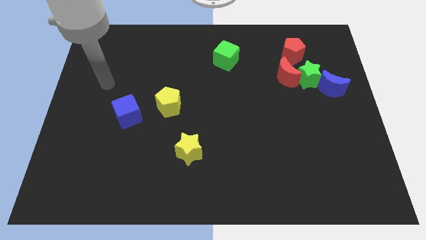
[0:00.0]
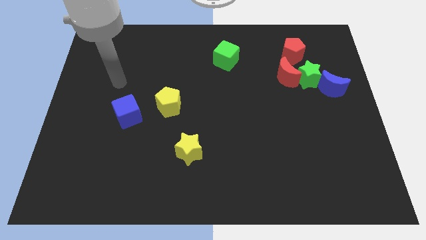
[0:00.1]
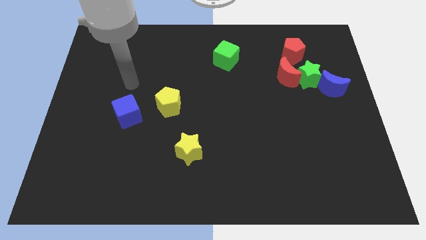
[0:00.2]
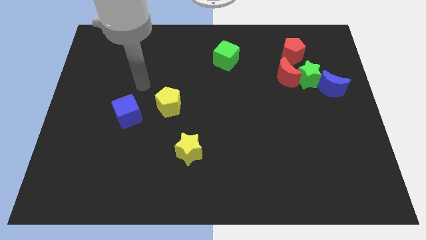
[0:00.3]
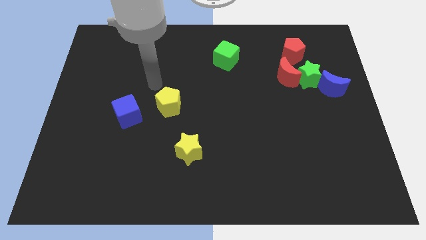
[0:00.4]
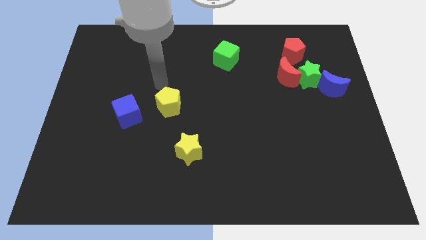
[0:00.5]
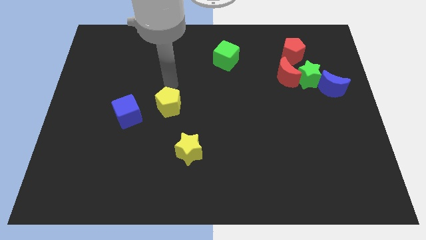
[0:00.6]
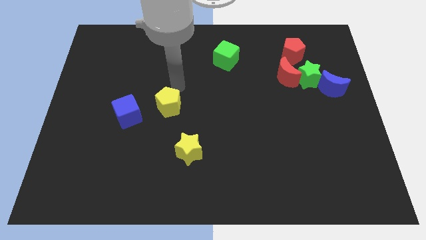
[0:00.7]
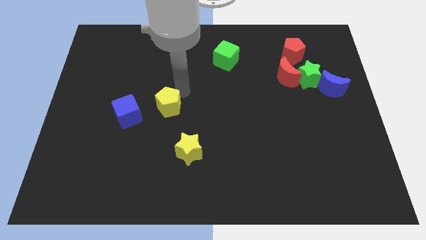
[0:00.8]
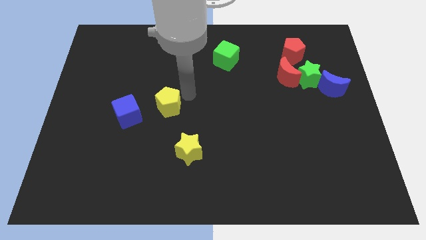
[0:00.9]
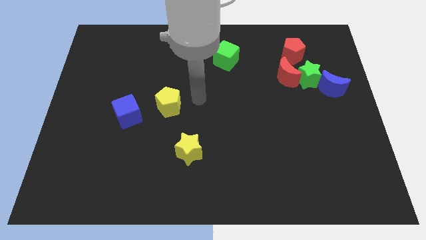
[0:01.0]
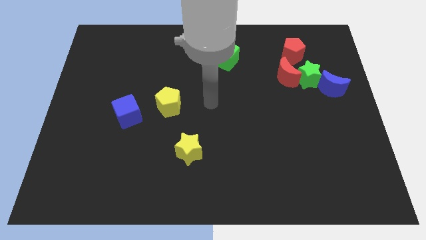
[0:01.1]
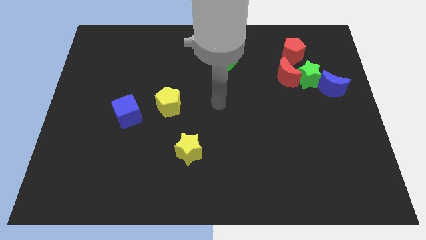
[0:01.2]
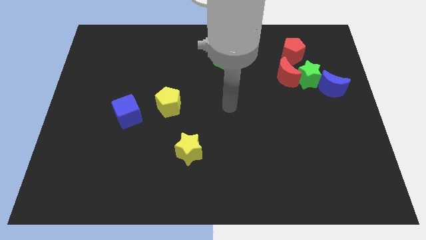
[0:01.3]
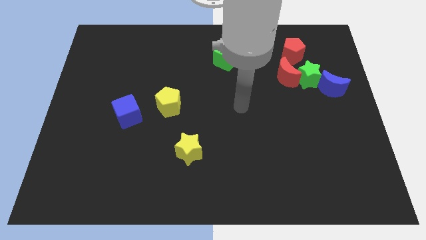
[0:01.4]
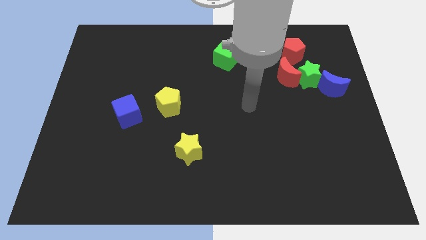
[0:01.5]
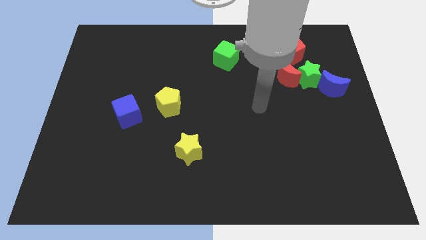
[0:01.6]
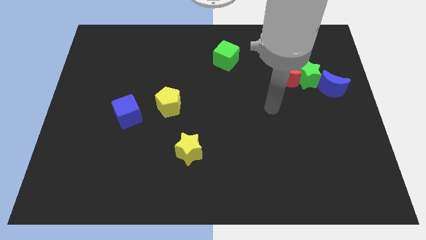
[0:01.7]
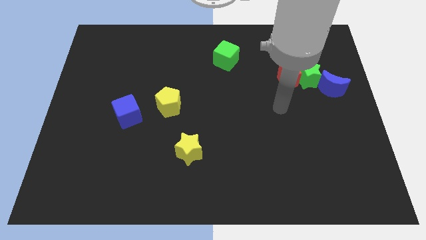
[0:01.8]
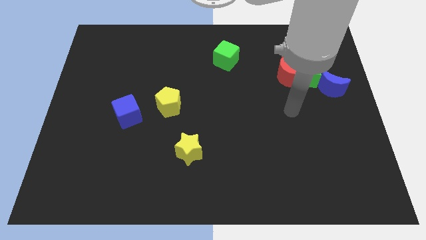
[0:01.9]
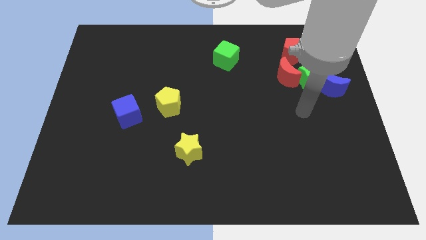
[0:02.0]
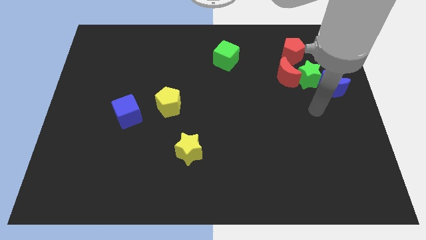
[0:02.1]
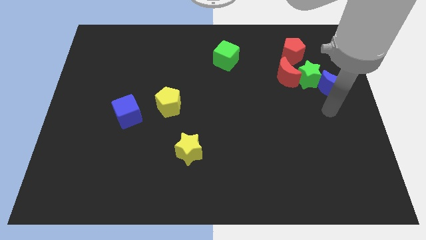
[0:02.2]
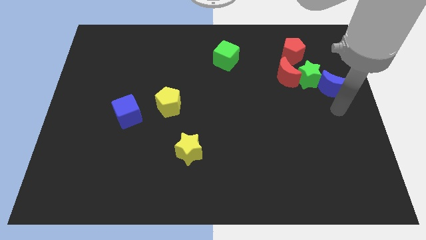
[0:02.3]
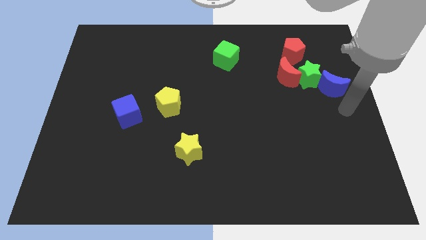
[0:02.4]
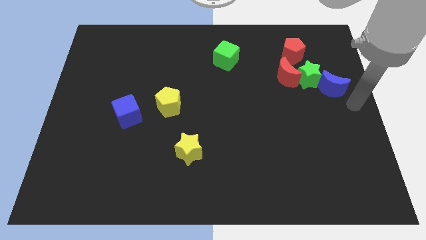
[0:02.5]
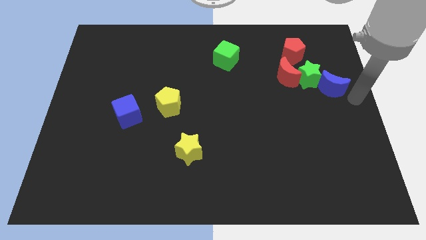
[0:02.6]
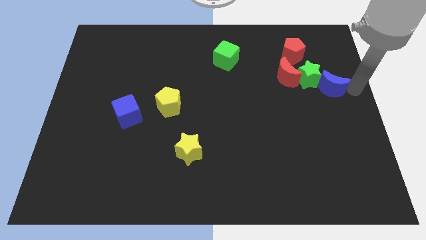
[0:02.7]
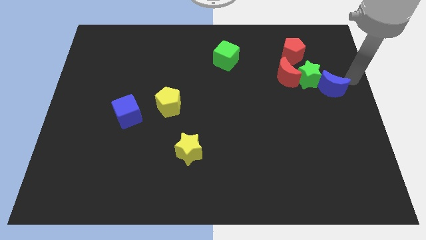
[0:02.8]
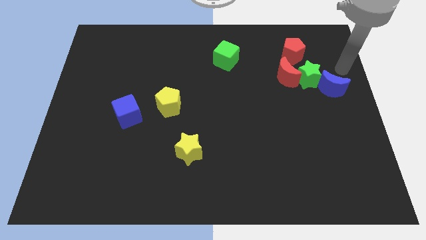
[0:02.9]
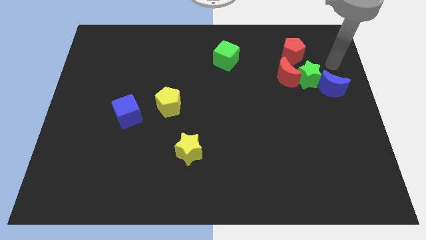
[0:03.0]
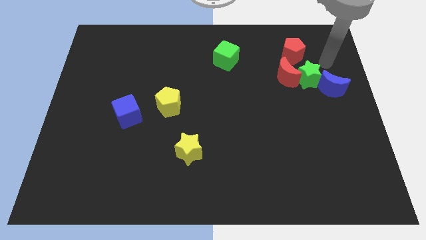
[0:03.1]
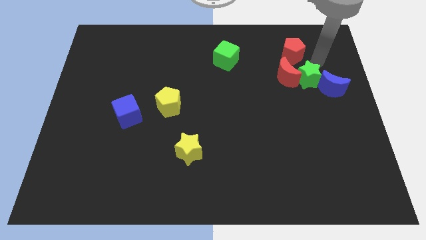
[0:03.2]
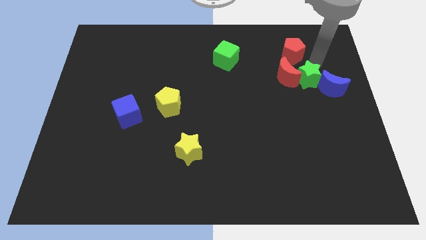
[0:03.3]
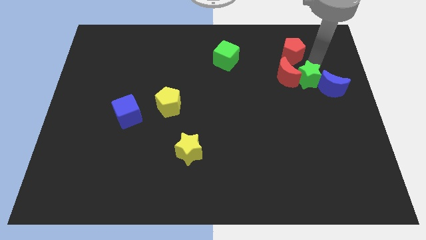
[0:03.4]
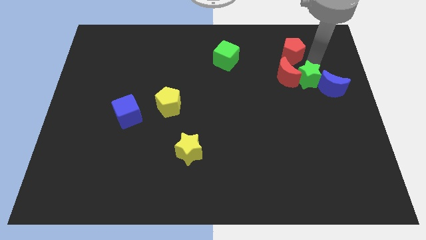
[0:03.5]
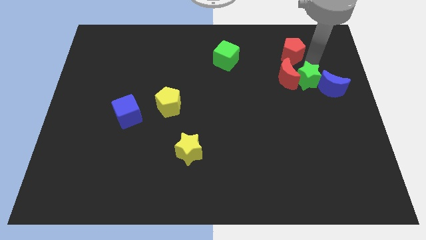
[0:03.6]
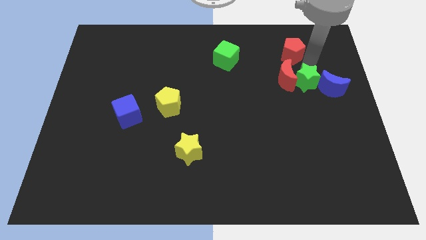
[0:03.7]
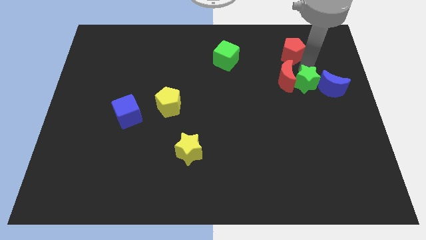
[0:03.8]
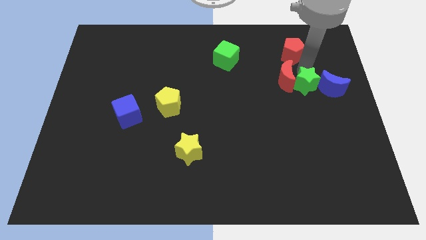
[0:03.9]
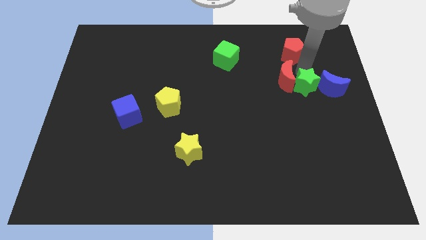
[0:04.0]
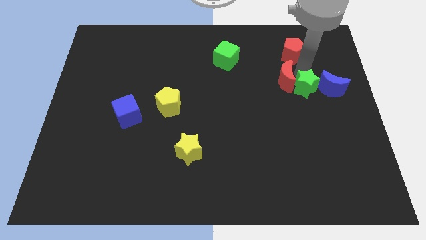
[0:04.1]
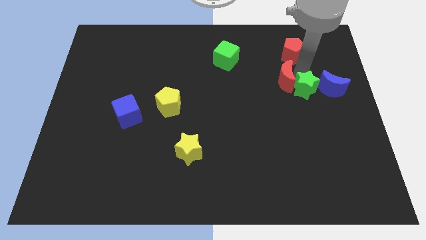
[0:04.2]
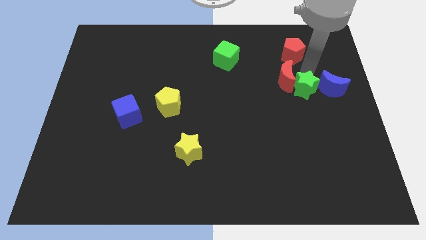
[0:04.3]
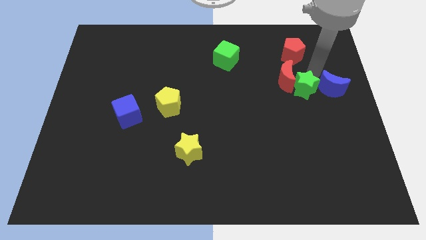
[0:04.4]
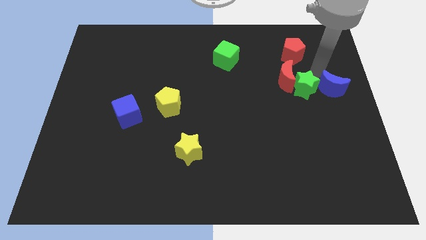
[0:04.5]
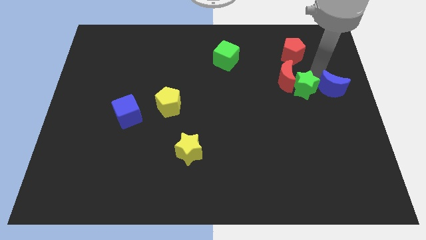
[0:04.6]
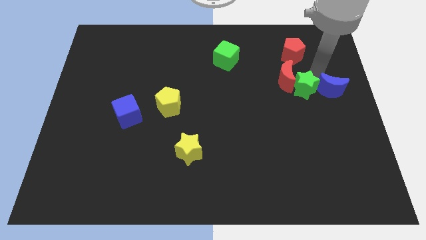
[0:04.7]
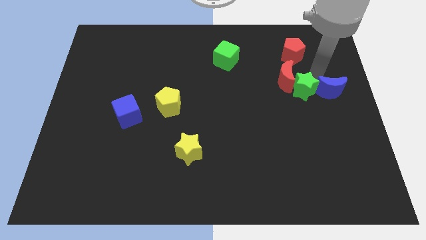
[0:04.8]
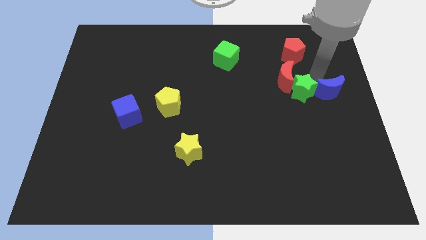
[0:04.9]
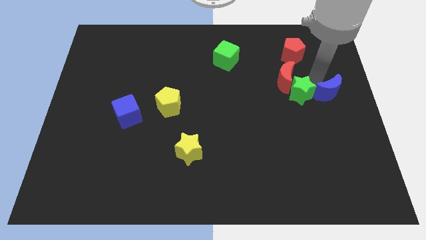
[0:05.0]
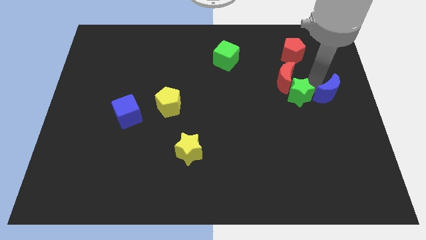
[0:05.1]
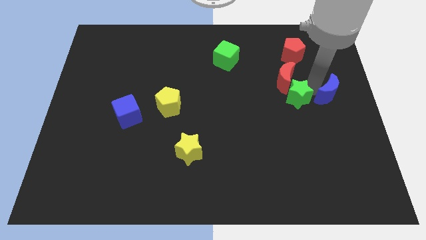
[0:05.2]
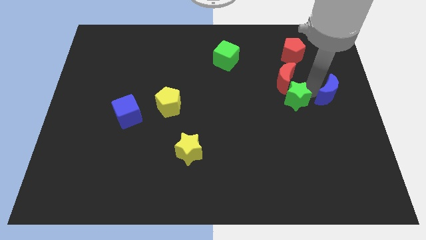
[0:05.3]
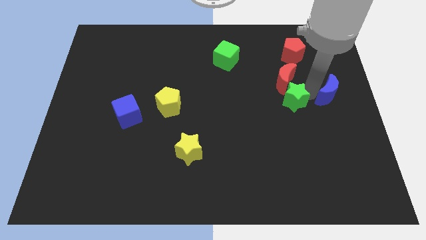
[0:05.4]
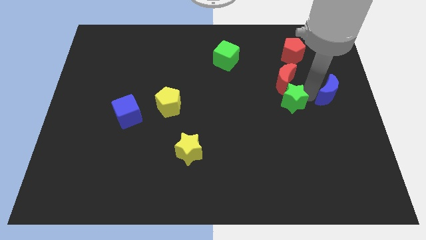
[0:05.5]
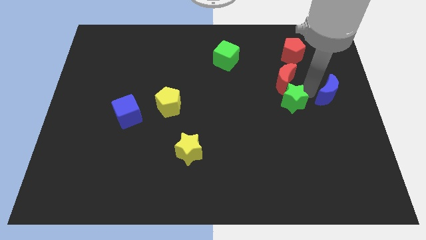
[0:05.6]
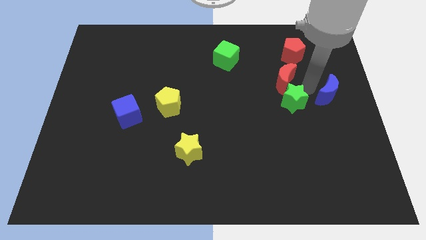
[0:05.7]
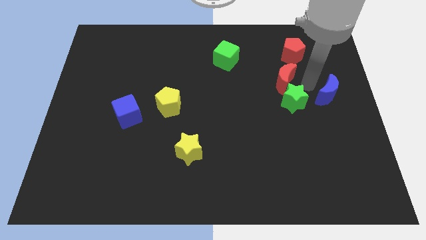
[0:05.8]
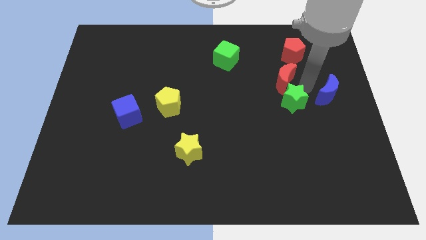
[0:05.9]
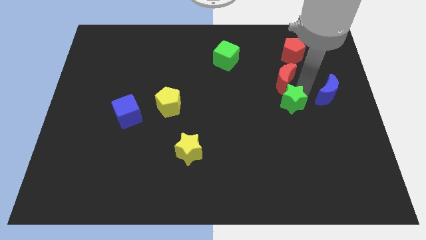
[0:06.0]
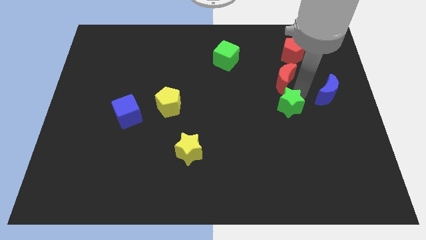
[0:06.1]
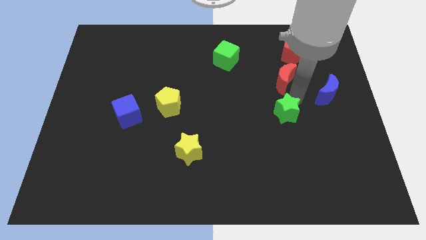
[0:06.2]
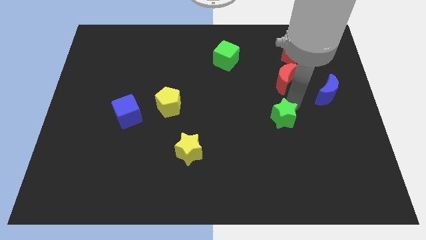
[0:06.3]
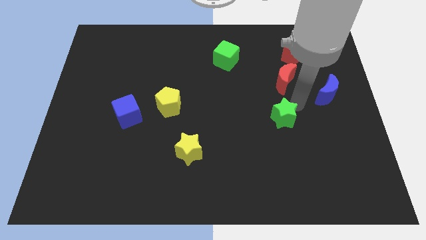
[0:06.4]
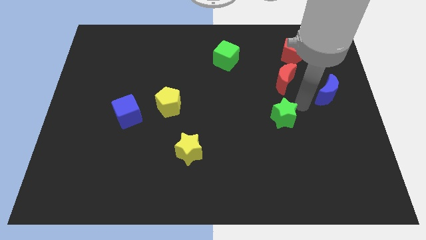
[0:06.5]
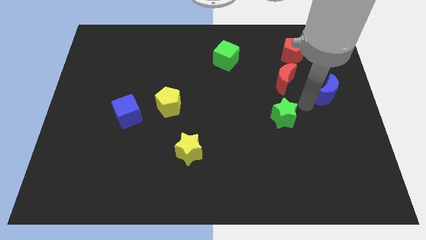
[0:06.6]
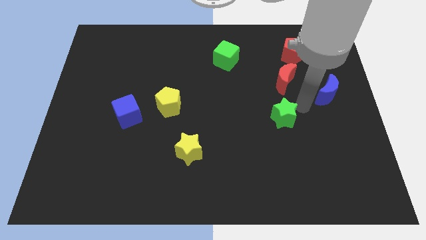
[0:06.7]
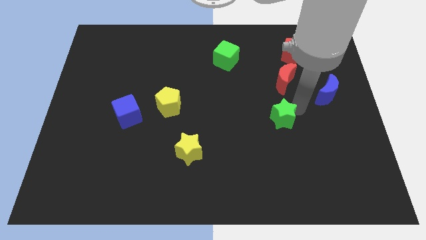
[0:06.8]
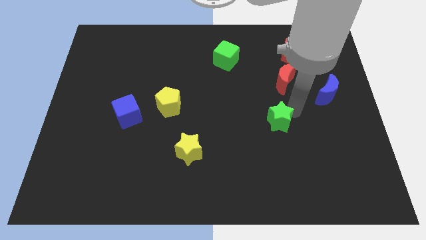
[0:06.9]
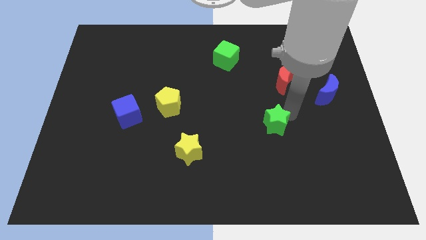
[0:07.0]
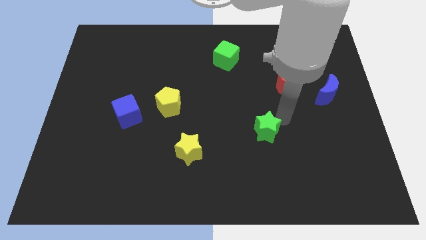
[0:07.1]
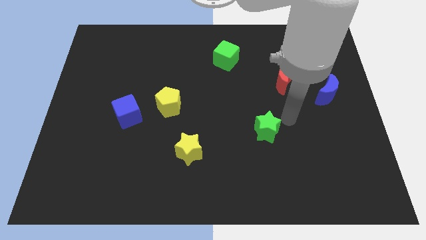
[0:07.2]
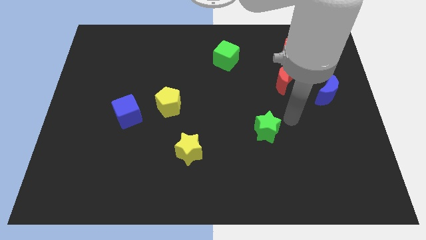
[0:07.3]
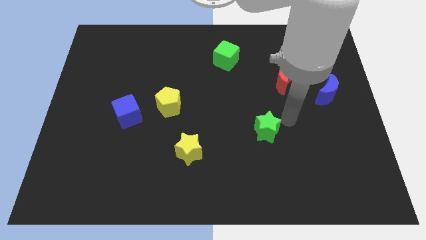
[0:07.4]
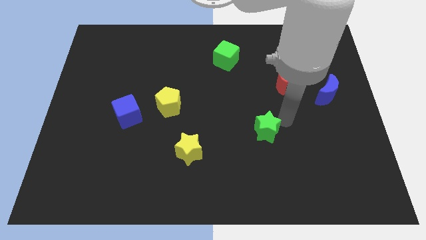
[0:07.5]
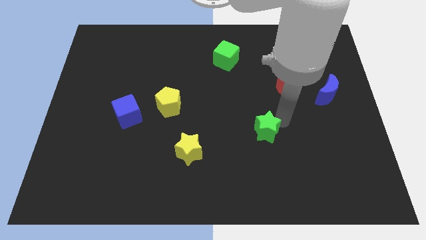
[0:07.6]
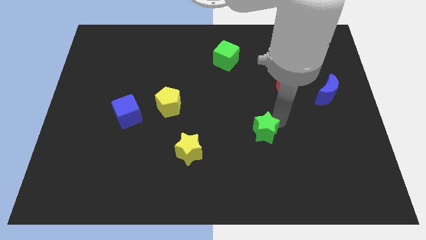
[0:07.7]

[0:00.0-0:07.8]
move the green star diagonally down and to the left

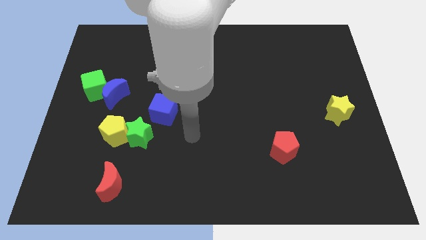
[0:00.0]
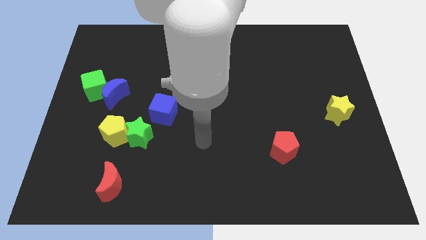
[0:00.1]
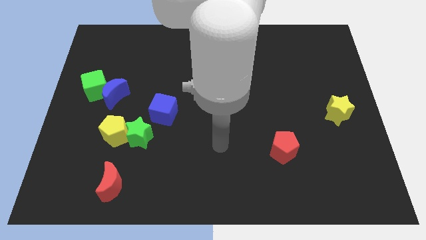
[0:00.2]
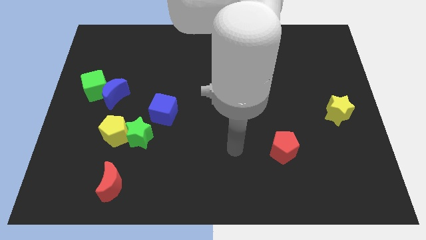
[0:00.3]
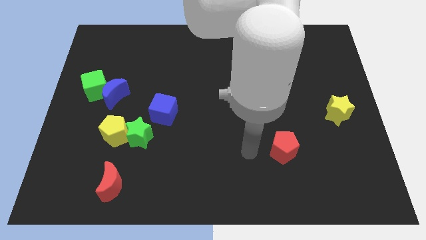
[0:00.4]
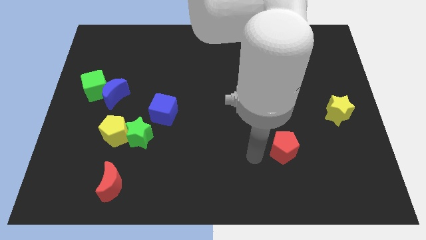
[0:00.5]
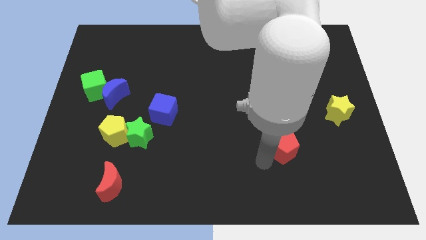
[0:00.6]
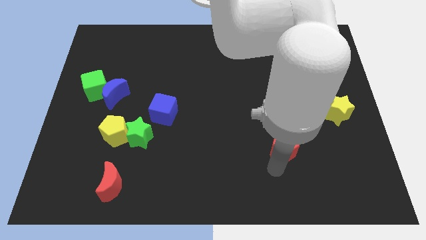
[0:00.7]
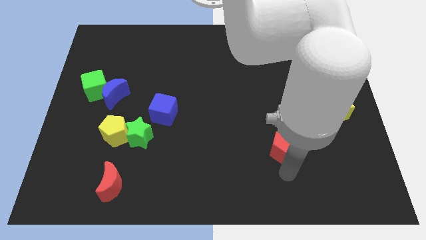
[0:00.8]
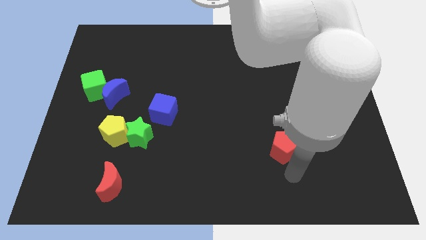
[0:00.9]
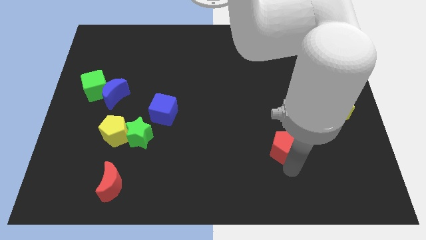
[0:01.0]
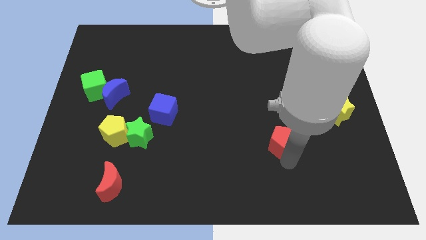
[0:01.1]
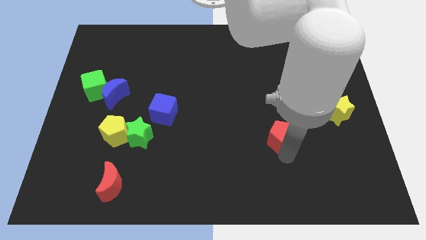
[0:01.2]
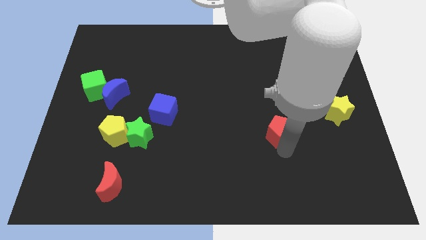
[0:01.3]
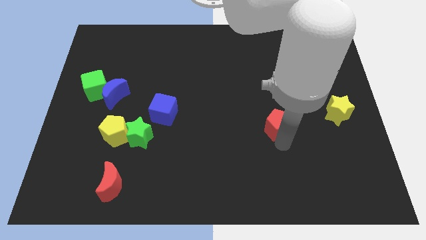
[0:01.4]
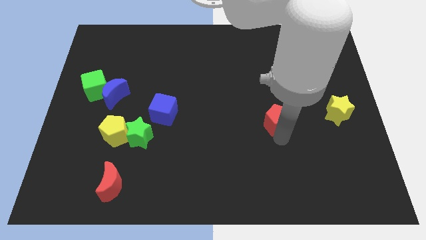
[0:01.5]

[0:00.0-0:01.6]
slide the red pentagon up somewhat
